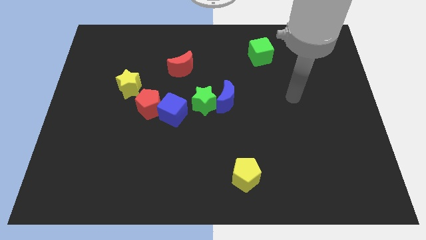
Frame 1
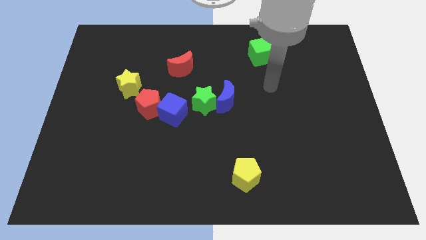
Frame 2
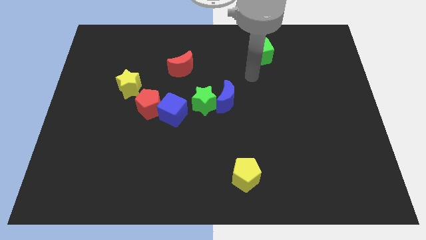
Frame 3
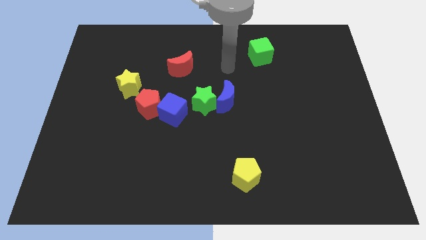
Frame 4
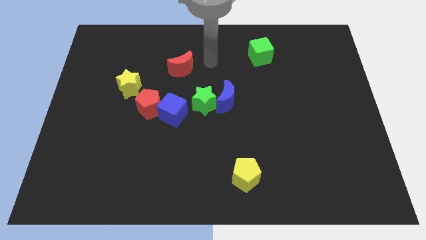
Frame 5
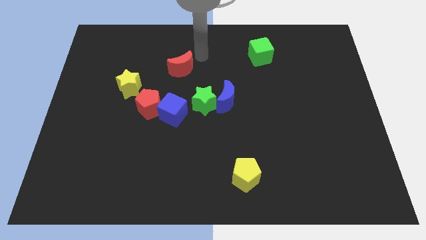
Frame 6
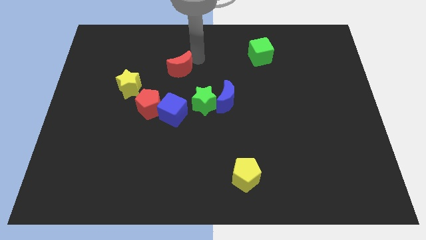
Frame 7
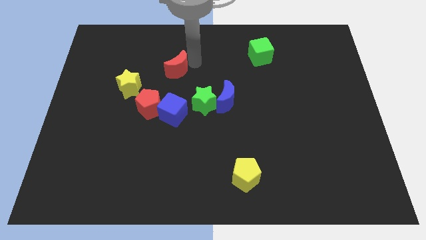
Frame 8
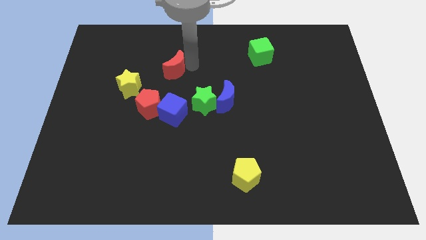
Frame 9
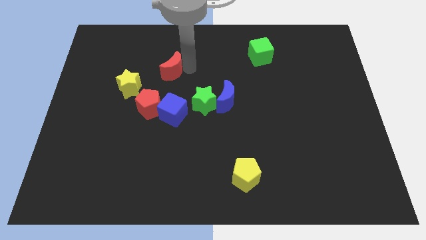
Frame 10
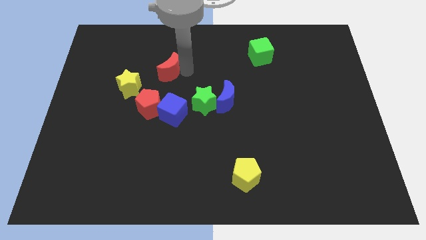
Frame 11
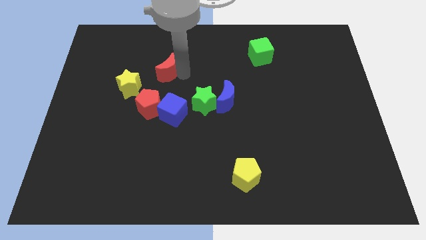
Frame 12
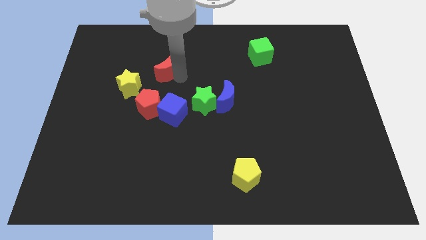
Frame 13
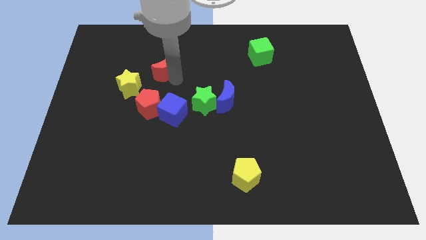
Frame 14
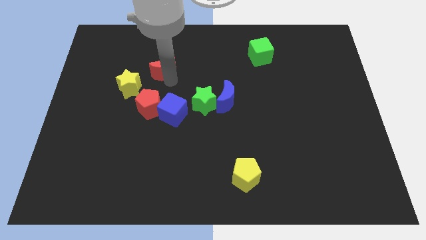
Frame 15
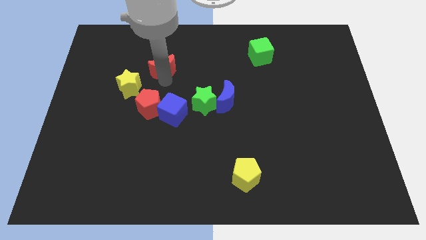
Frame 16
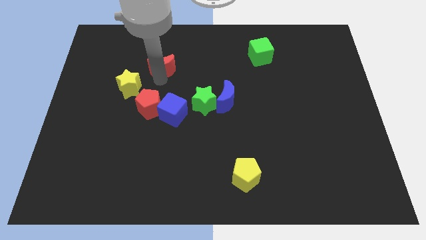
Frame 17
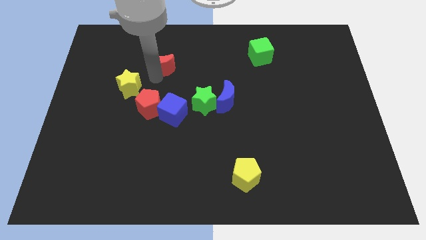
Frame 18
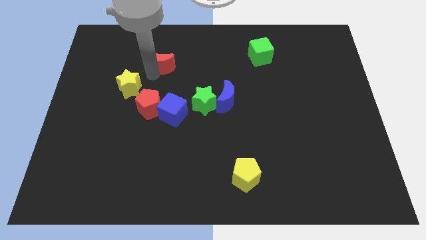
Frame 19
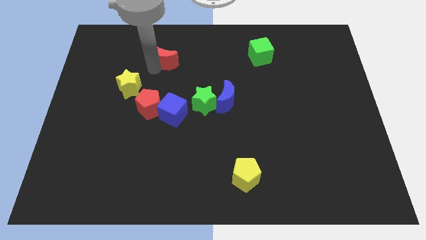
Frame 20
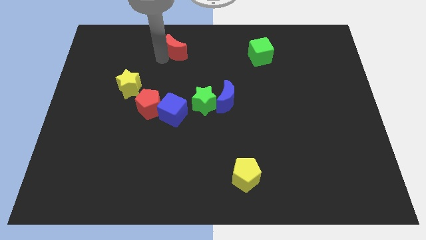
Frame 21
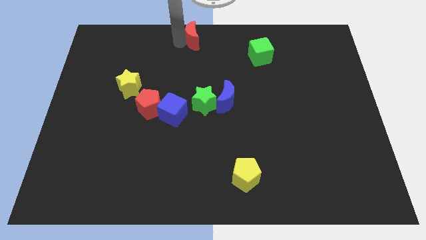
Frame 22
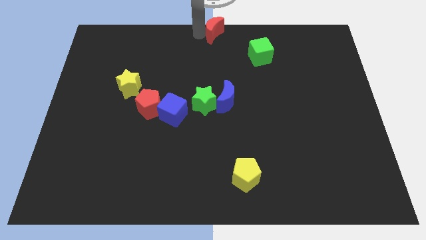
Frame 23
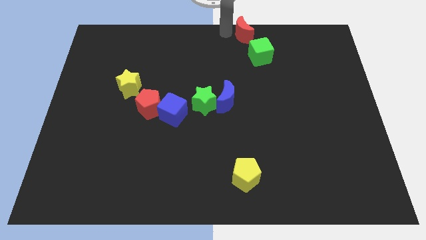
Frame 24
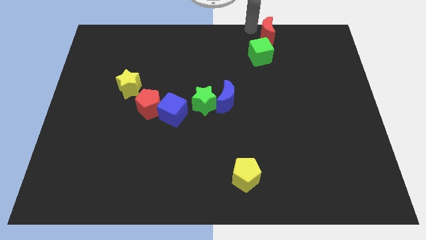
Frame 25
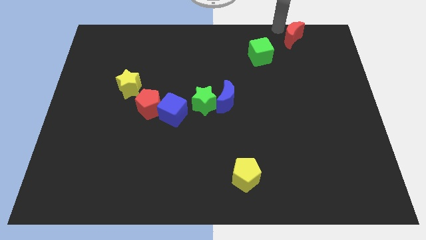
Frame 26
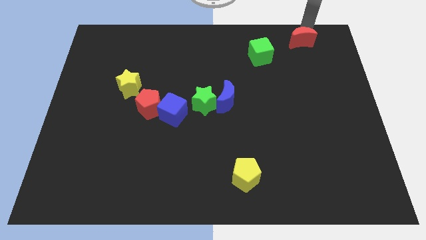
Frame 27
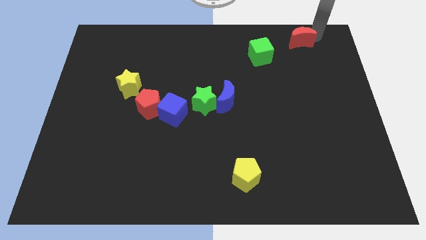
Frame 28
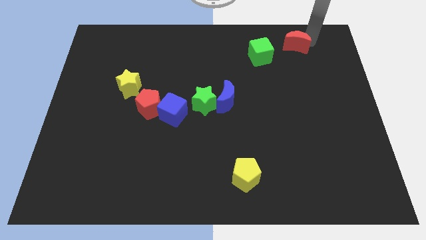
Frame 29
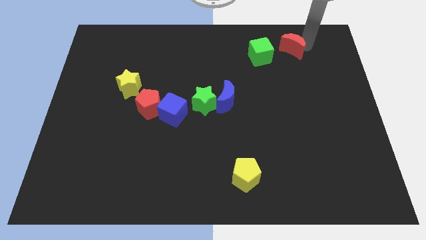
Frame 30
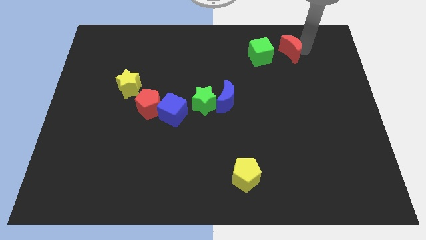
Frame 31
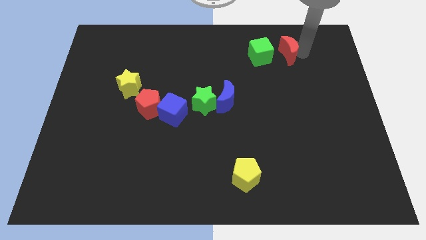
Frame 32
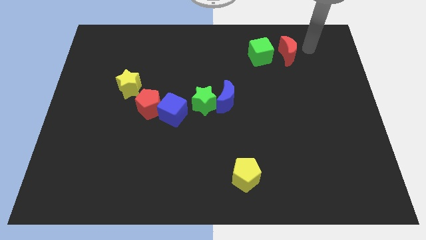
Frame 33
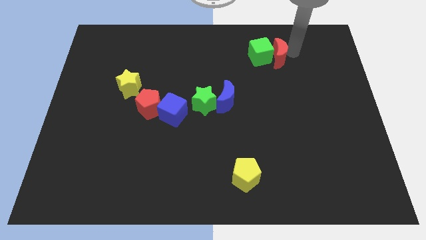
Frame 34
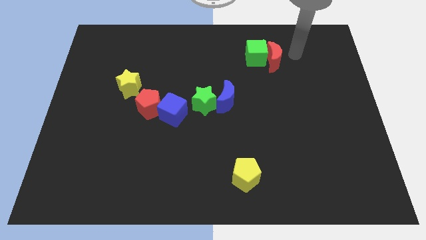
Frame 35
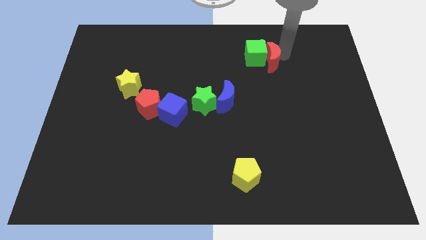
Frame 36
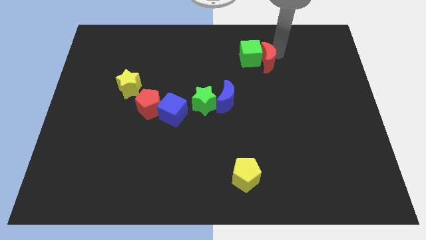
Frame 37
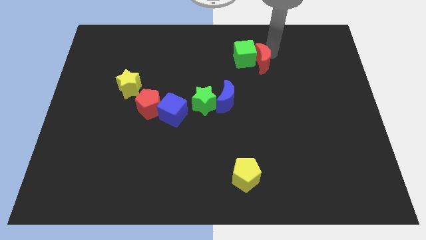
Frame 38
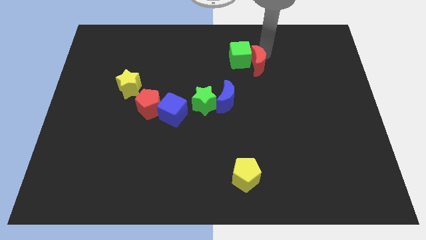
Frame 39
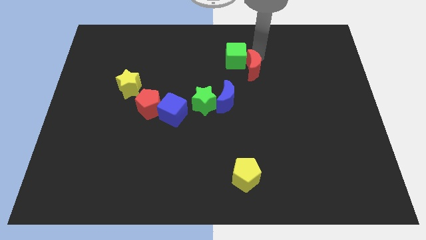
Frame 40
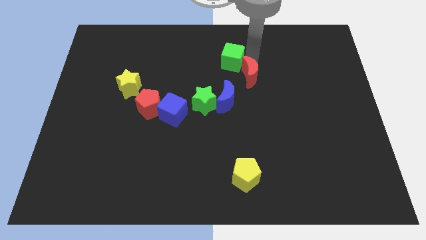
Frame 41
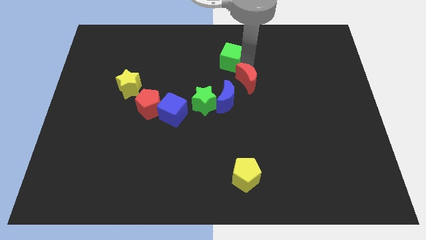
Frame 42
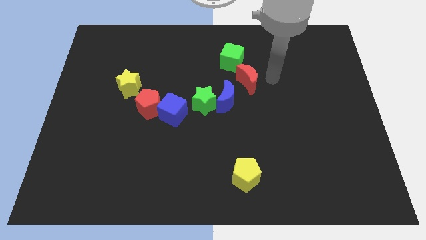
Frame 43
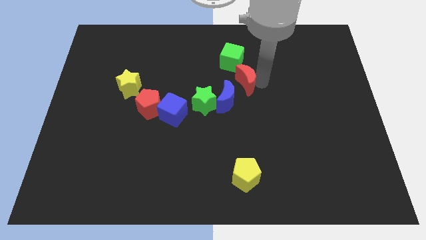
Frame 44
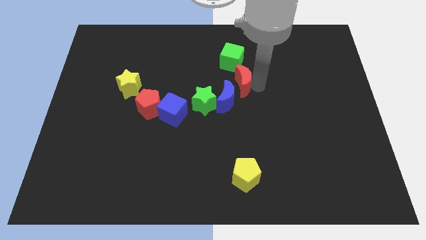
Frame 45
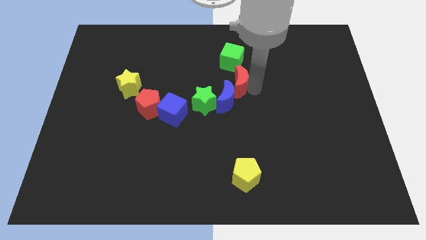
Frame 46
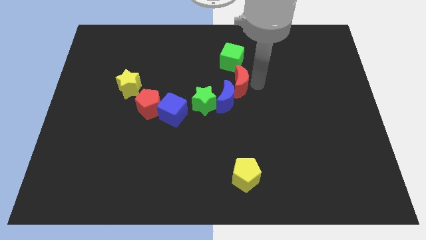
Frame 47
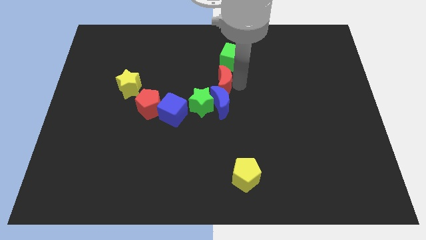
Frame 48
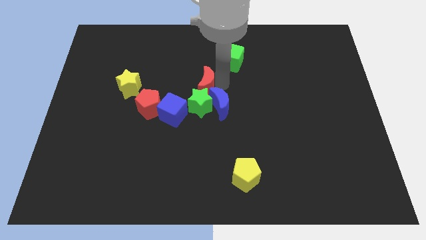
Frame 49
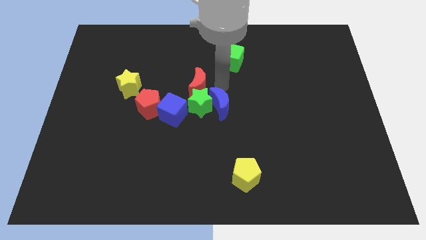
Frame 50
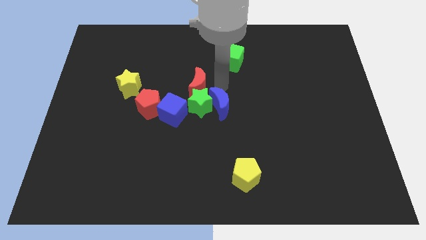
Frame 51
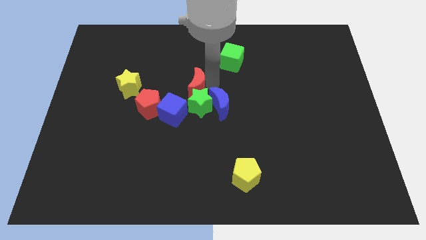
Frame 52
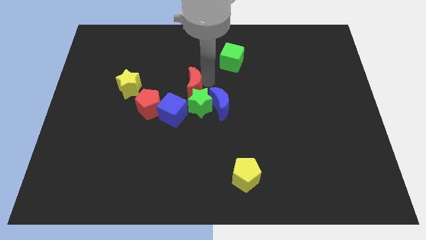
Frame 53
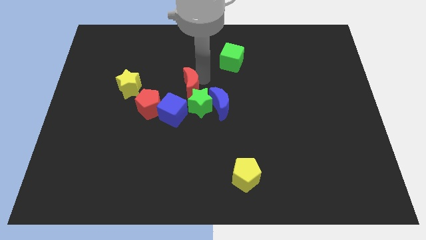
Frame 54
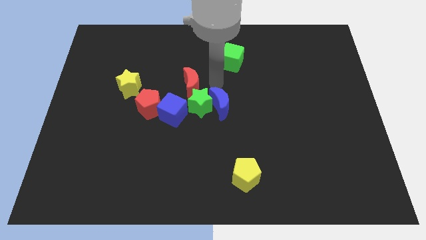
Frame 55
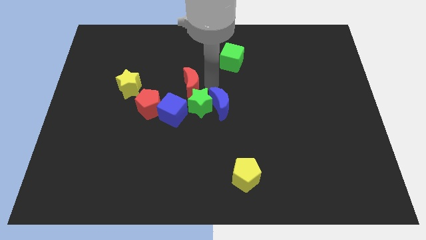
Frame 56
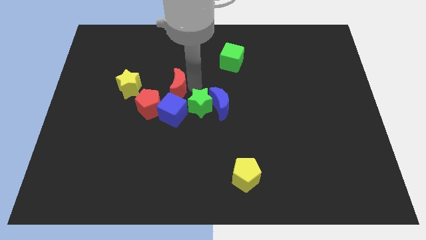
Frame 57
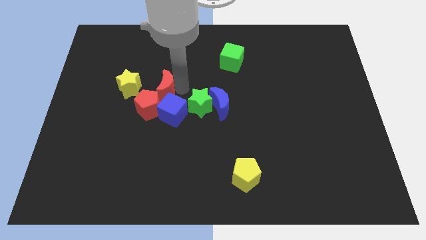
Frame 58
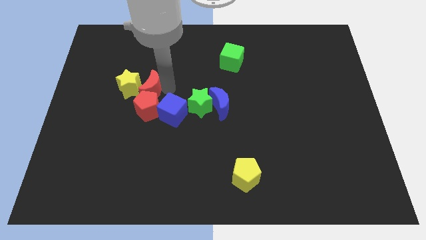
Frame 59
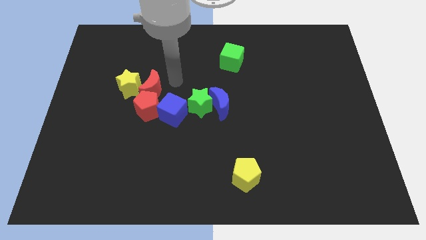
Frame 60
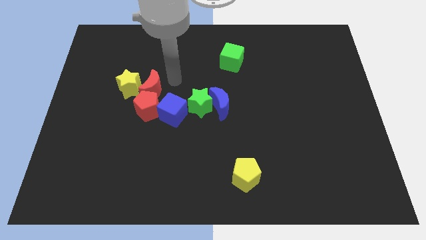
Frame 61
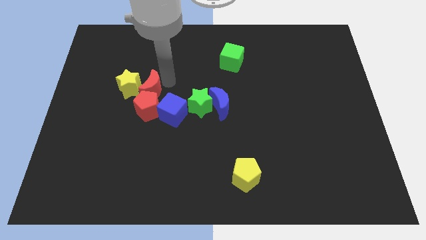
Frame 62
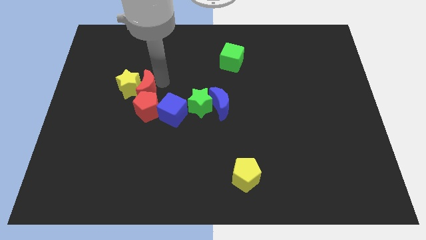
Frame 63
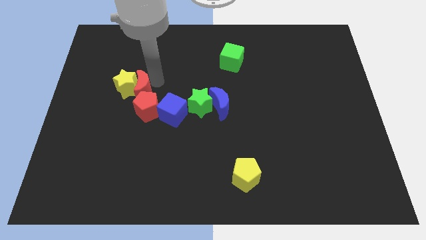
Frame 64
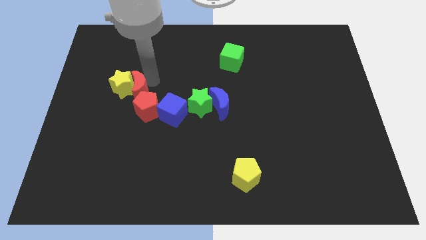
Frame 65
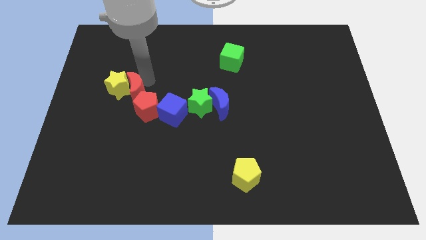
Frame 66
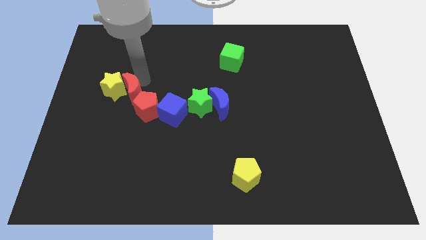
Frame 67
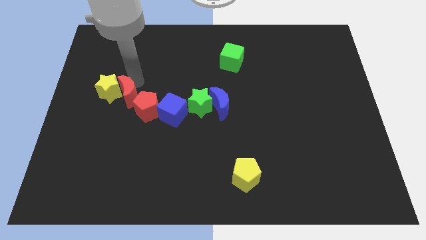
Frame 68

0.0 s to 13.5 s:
slide the red moon just left of the red pentagon

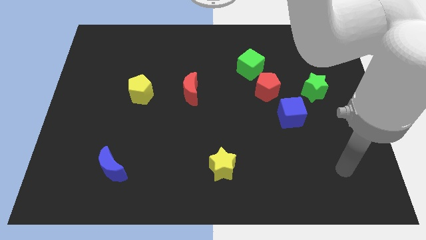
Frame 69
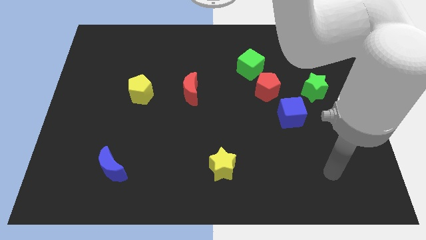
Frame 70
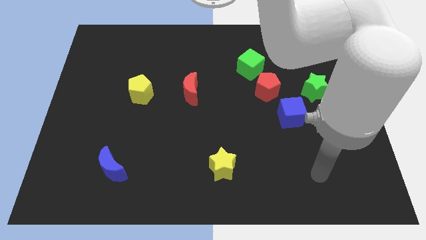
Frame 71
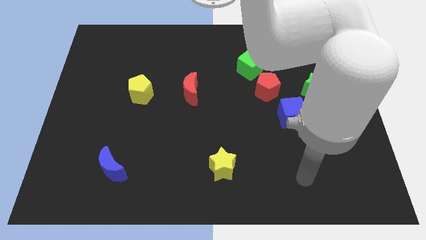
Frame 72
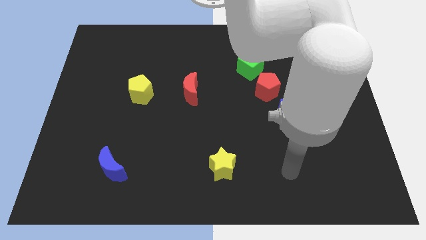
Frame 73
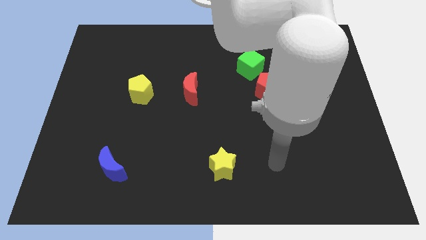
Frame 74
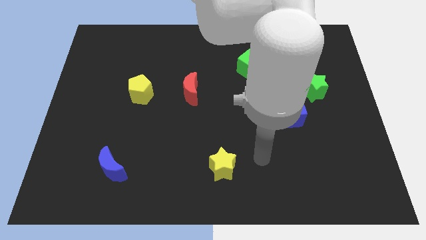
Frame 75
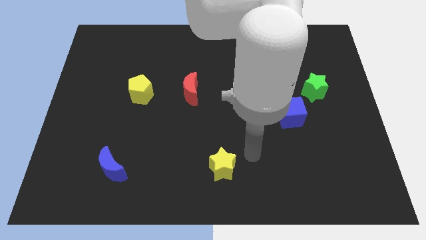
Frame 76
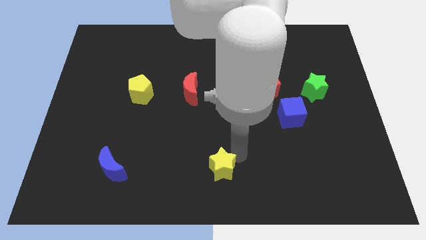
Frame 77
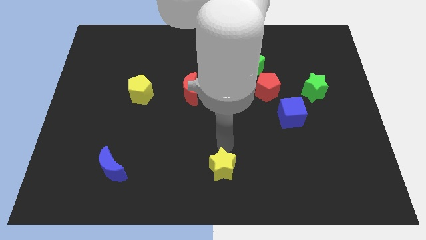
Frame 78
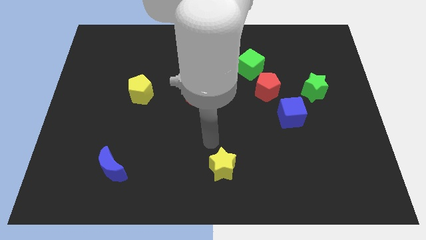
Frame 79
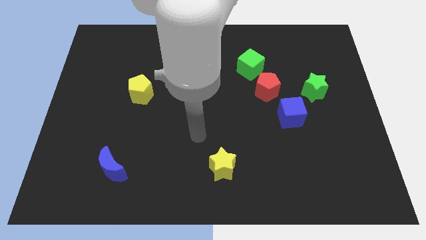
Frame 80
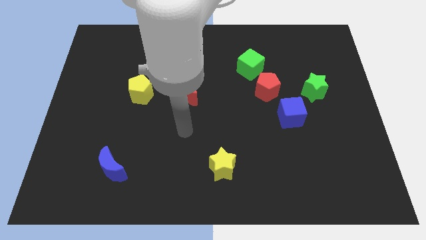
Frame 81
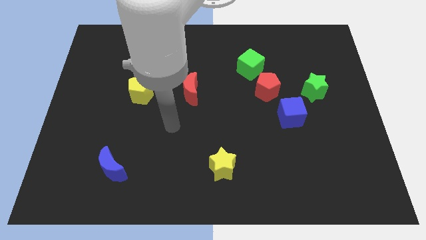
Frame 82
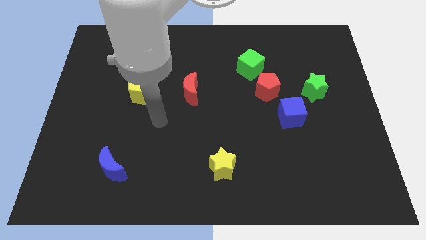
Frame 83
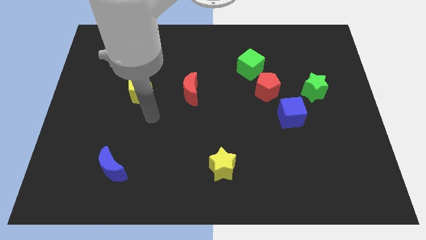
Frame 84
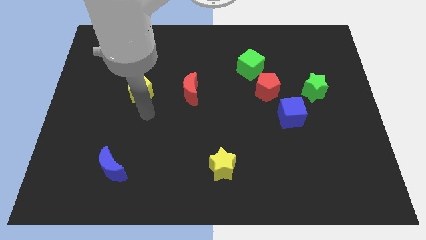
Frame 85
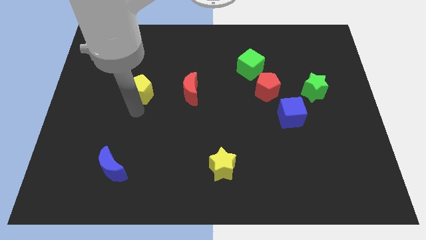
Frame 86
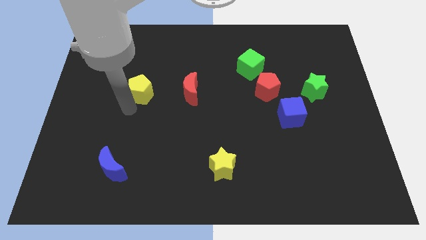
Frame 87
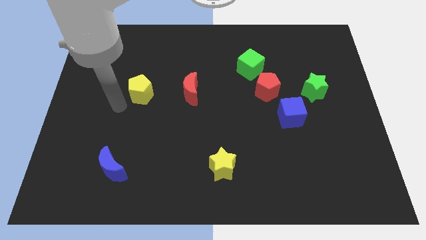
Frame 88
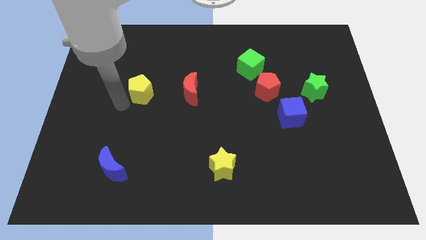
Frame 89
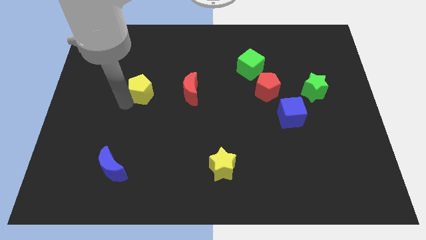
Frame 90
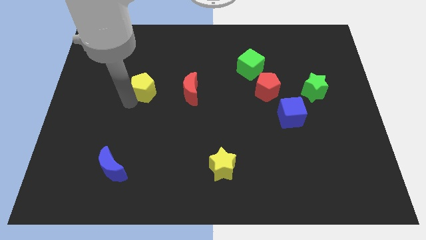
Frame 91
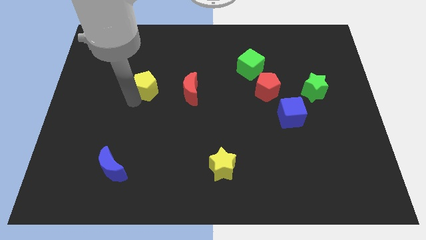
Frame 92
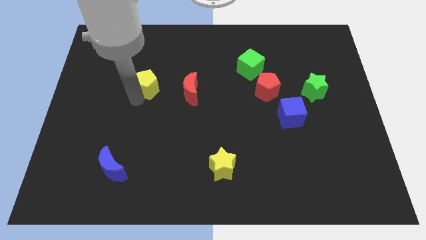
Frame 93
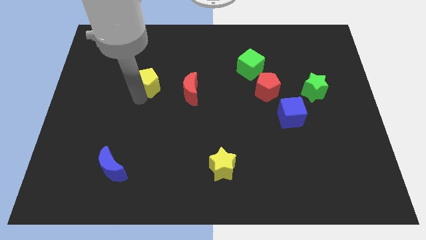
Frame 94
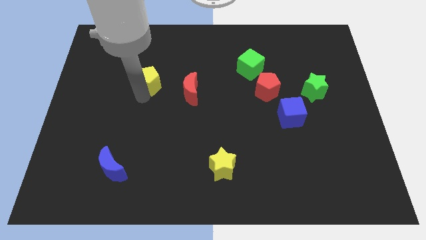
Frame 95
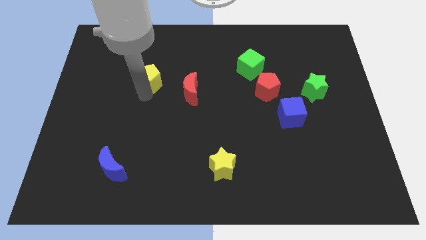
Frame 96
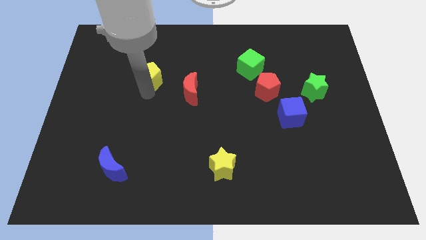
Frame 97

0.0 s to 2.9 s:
push the yellow pentagon to the top left side of the red moon
